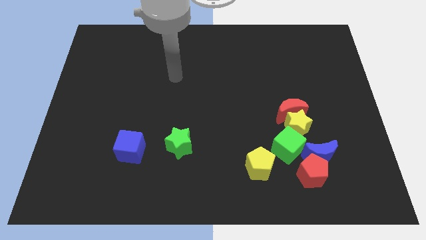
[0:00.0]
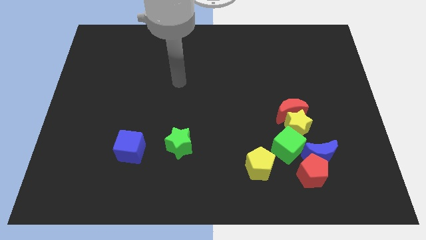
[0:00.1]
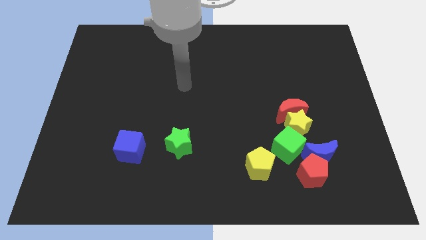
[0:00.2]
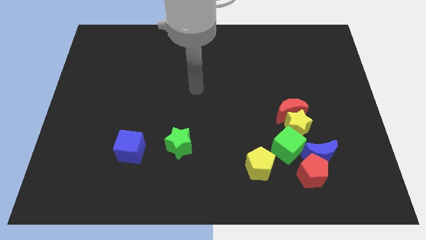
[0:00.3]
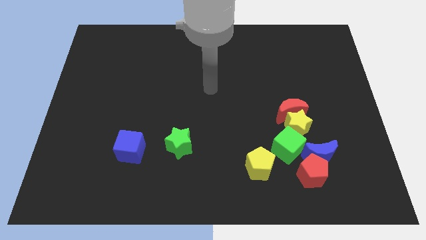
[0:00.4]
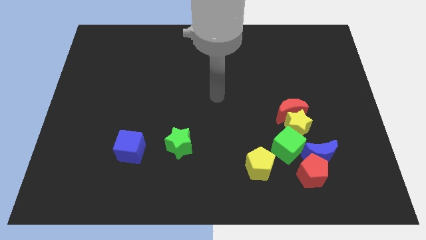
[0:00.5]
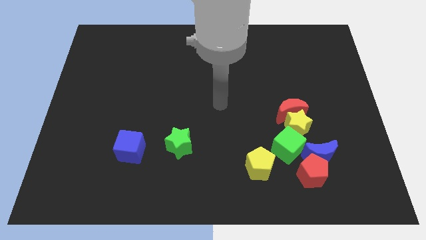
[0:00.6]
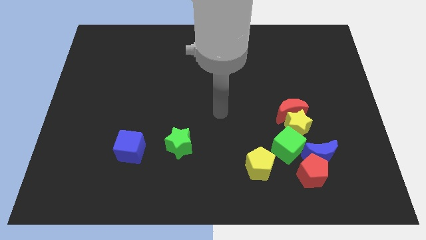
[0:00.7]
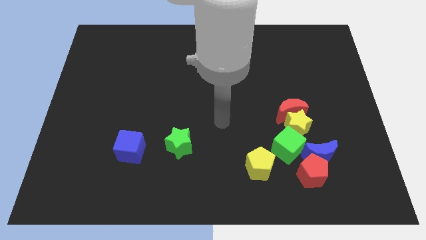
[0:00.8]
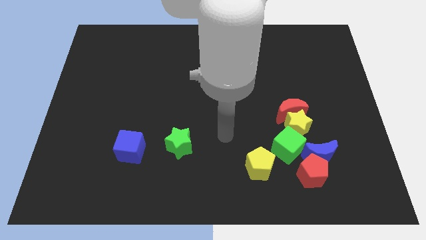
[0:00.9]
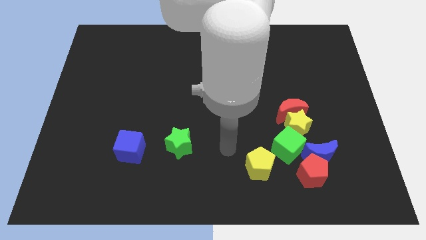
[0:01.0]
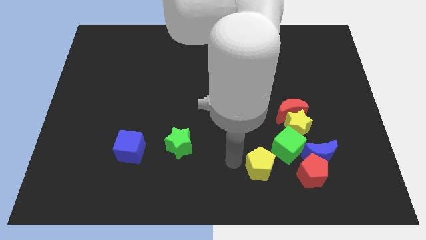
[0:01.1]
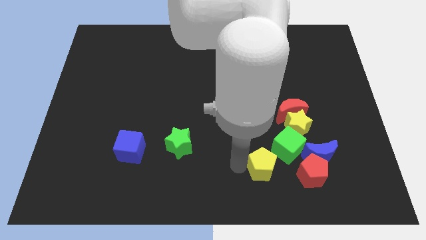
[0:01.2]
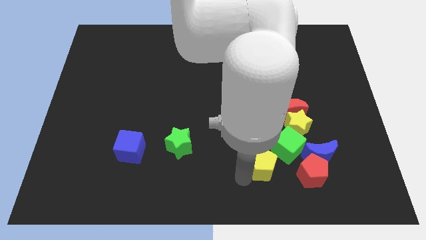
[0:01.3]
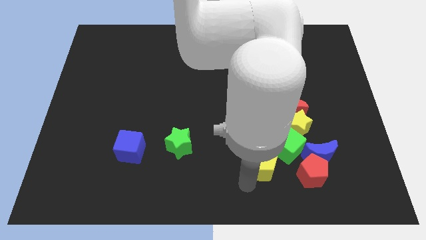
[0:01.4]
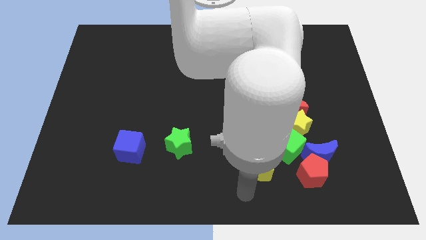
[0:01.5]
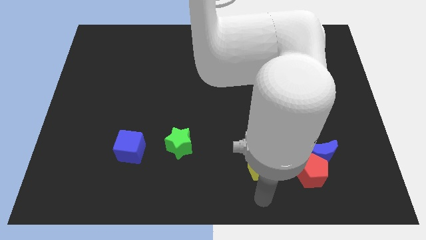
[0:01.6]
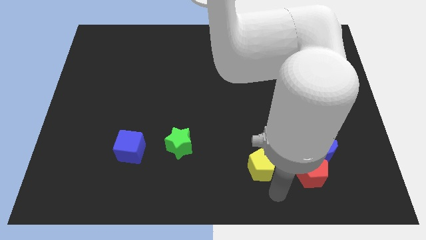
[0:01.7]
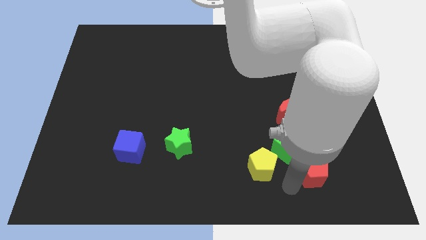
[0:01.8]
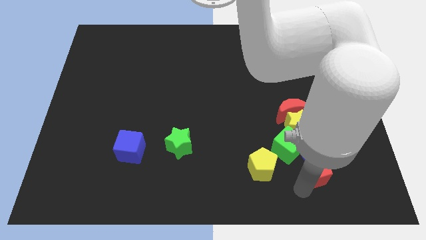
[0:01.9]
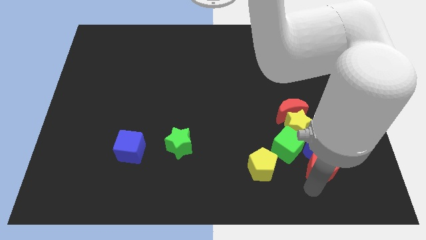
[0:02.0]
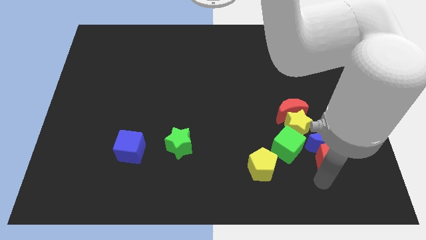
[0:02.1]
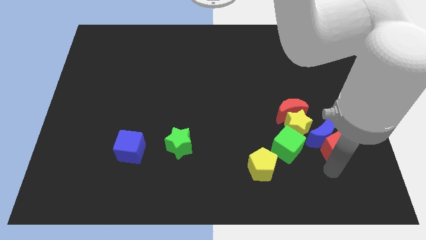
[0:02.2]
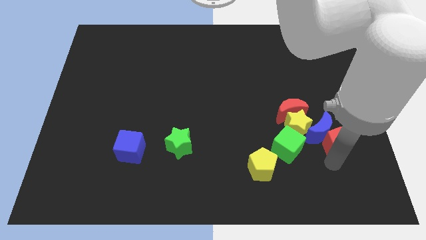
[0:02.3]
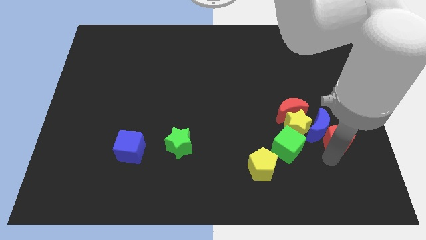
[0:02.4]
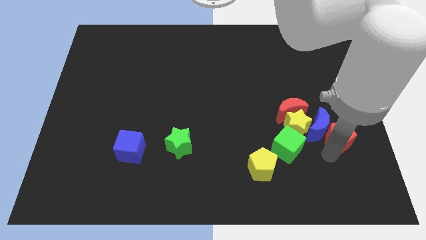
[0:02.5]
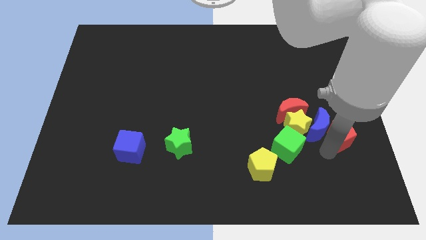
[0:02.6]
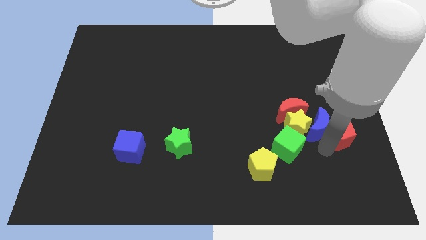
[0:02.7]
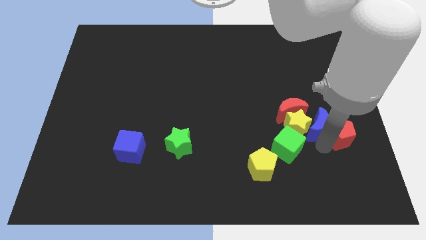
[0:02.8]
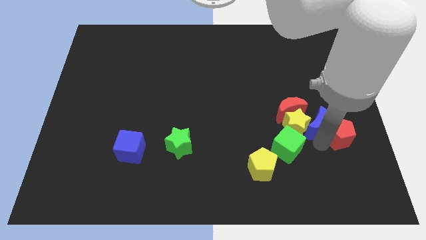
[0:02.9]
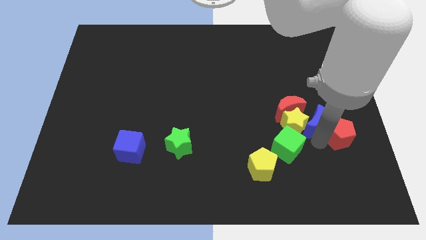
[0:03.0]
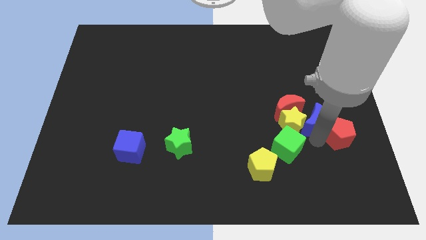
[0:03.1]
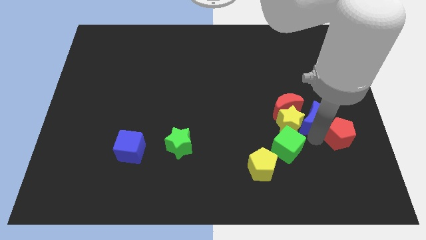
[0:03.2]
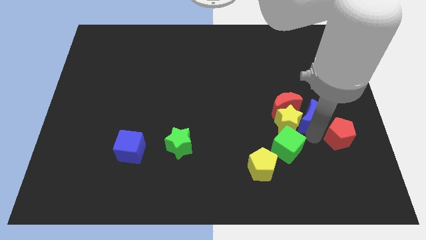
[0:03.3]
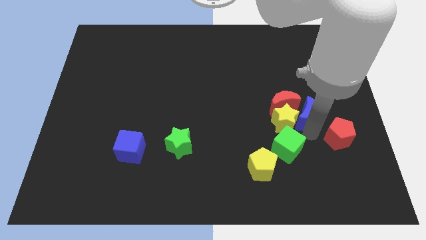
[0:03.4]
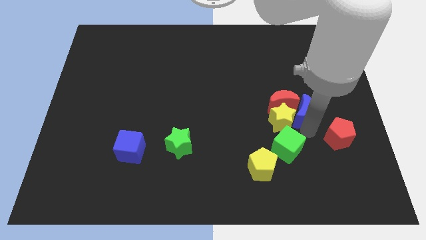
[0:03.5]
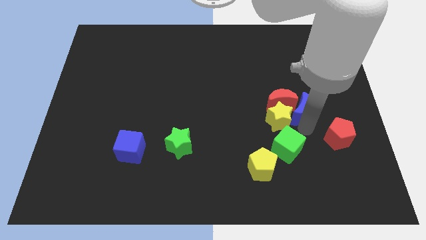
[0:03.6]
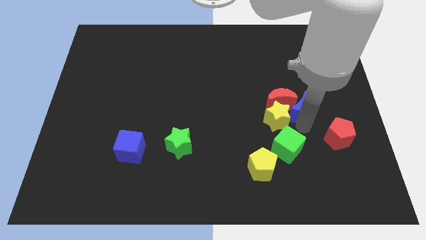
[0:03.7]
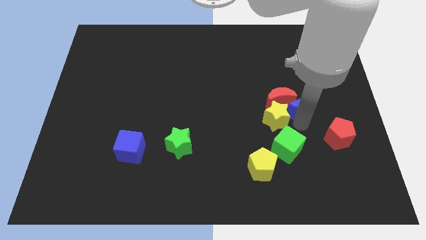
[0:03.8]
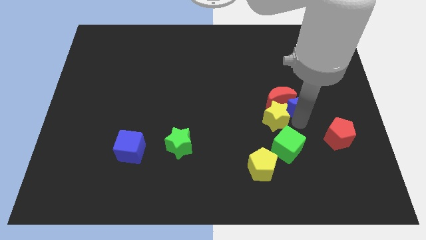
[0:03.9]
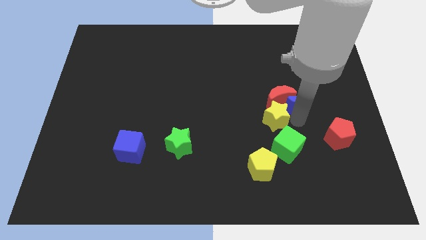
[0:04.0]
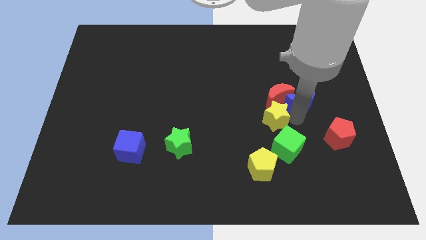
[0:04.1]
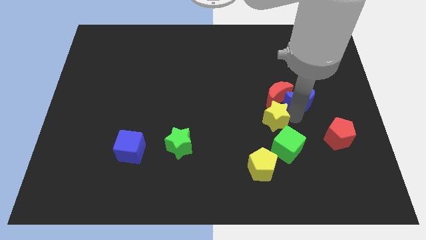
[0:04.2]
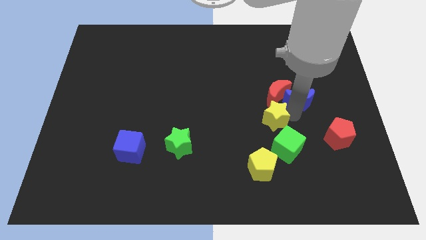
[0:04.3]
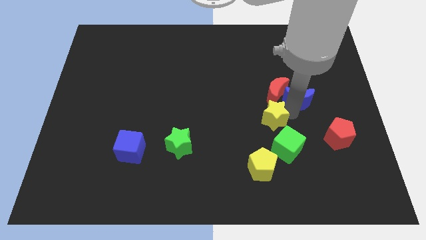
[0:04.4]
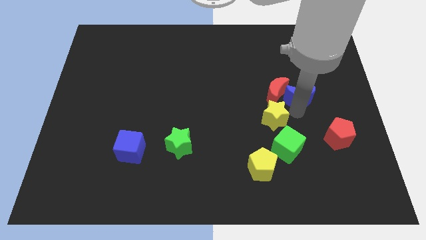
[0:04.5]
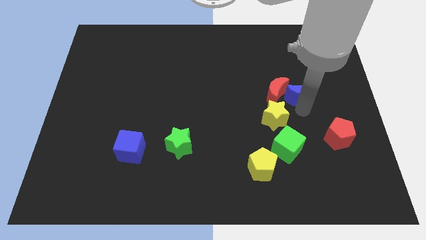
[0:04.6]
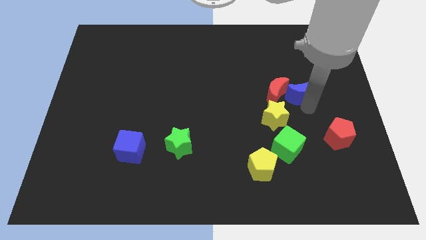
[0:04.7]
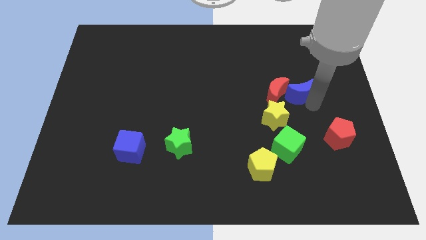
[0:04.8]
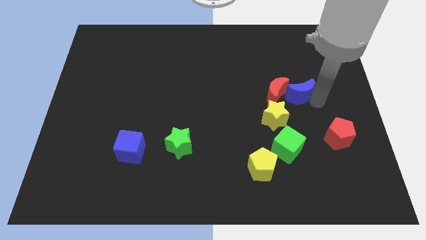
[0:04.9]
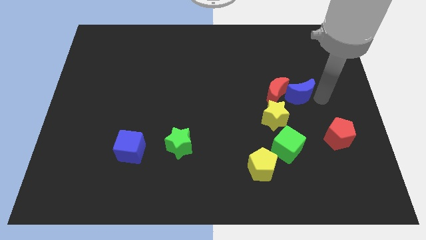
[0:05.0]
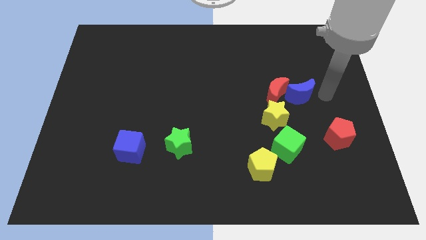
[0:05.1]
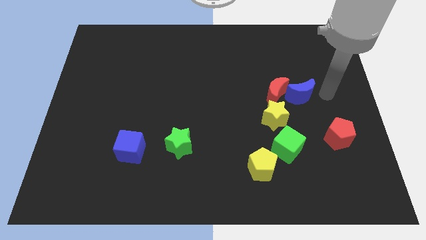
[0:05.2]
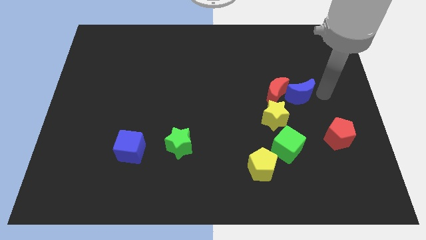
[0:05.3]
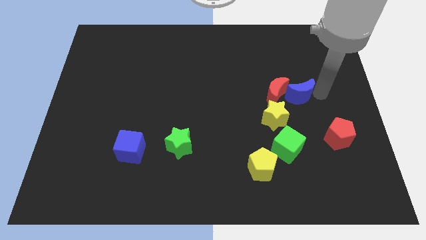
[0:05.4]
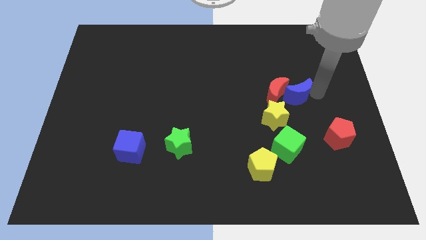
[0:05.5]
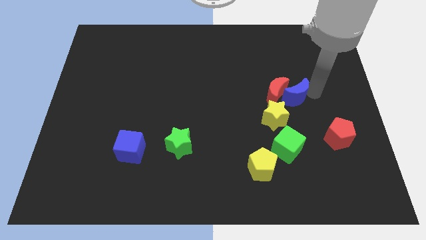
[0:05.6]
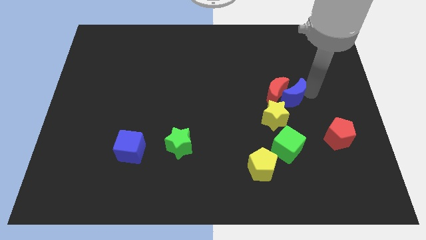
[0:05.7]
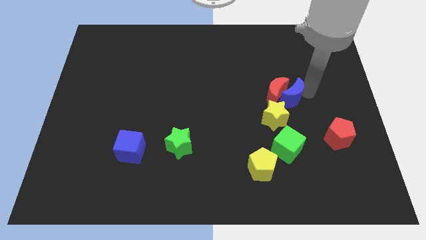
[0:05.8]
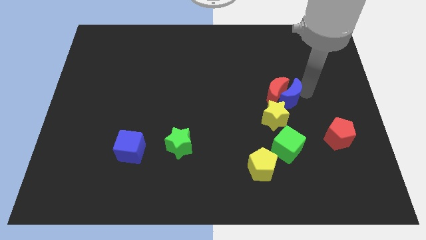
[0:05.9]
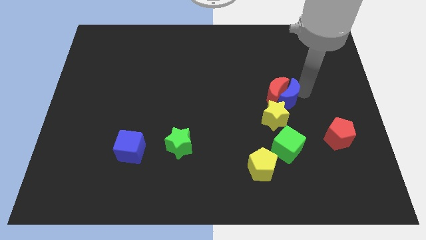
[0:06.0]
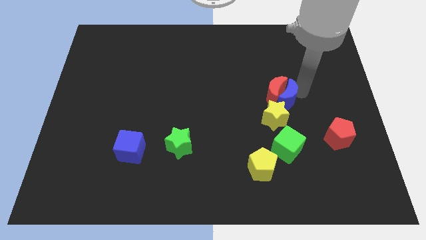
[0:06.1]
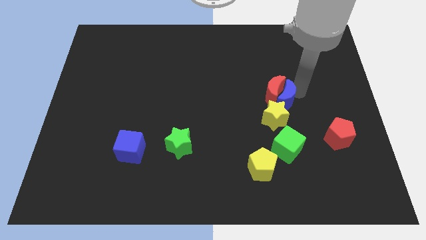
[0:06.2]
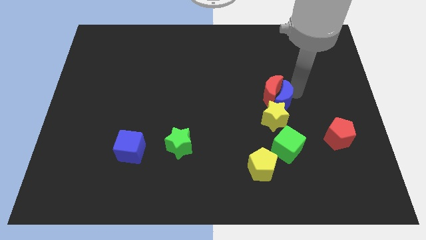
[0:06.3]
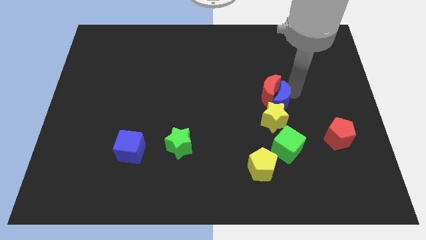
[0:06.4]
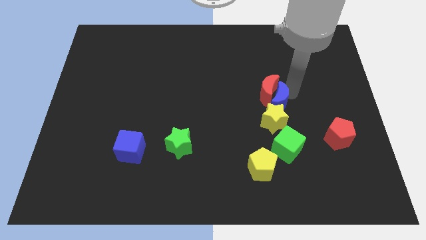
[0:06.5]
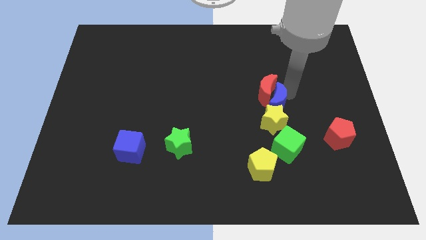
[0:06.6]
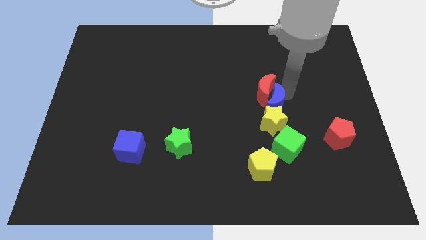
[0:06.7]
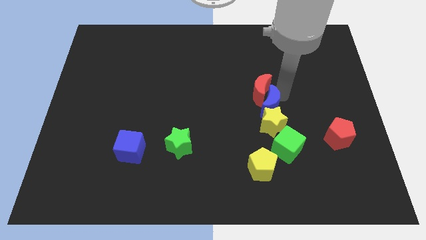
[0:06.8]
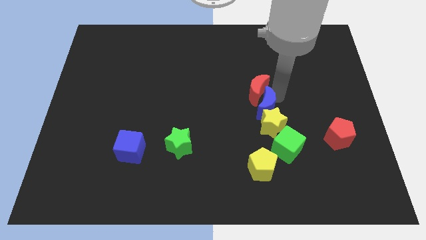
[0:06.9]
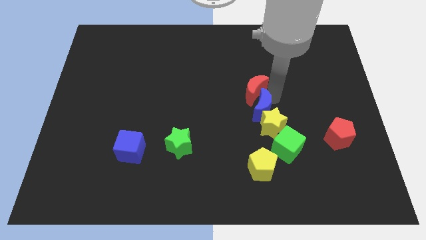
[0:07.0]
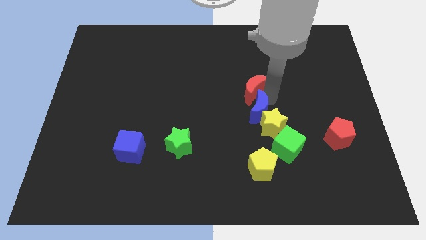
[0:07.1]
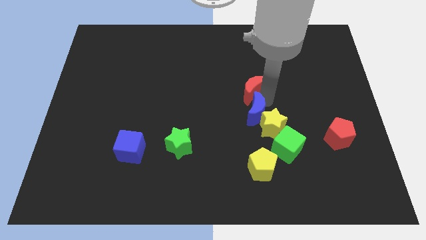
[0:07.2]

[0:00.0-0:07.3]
put the blue moon to the left of the yellow star
